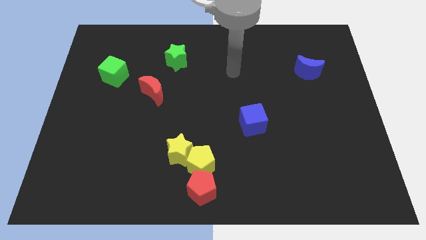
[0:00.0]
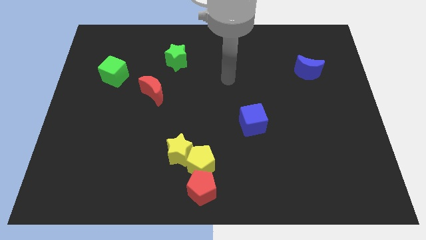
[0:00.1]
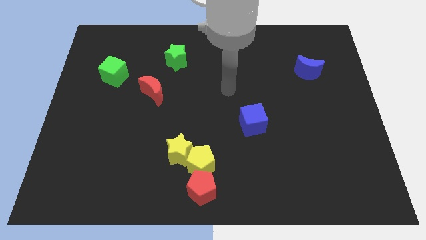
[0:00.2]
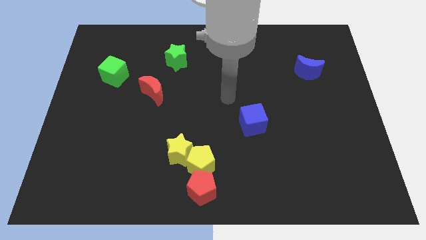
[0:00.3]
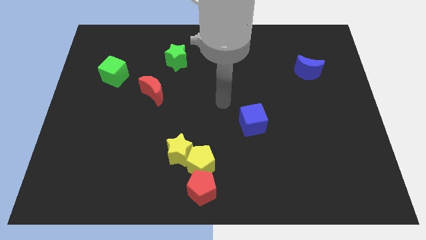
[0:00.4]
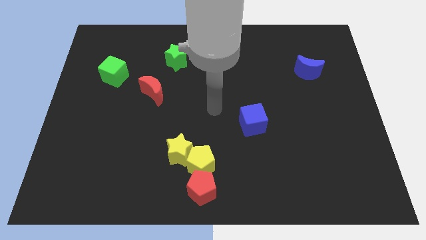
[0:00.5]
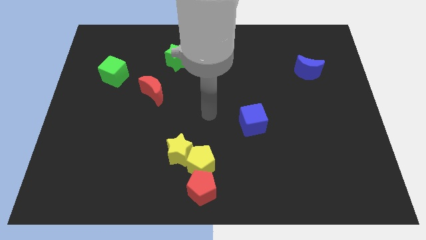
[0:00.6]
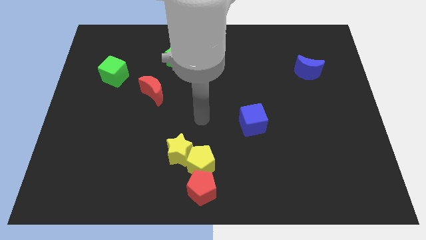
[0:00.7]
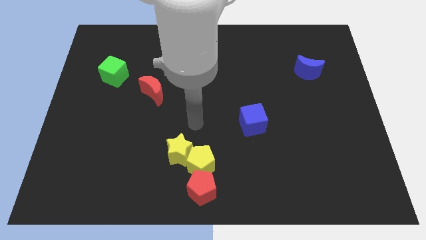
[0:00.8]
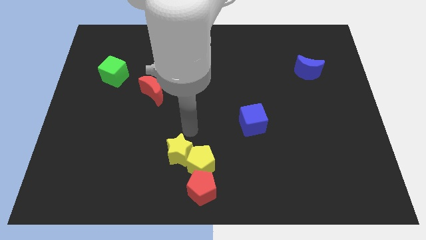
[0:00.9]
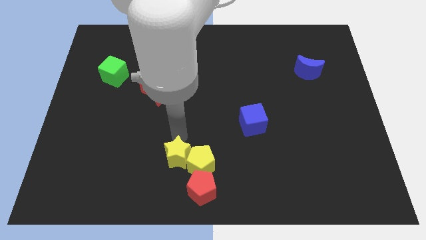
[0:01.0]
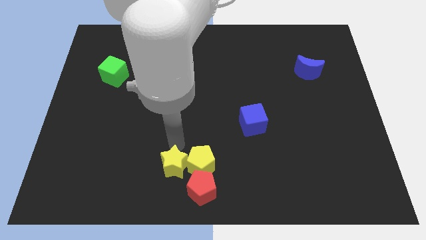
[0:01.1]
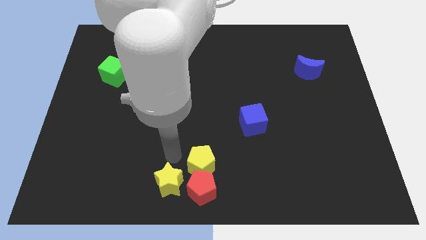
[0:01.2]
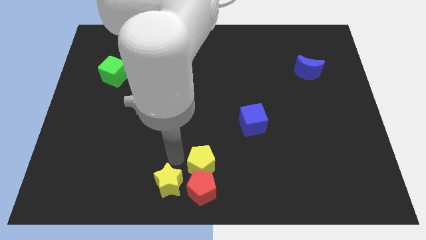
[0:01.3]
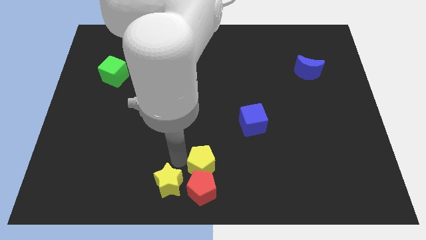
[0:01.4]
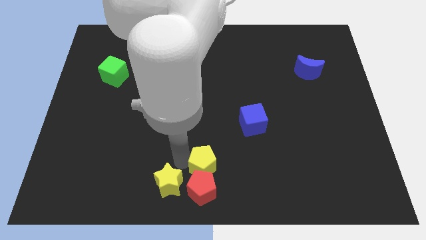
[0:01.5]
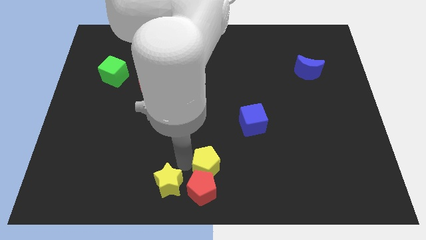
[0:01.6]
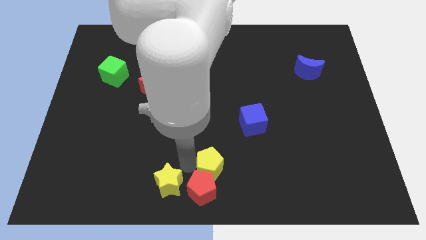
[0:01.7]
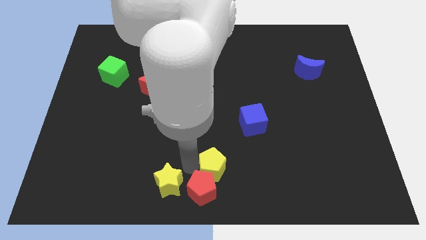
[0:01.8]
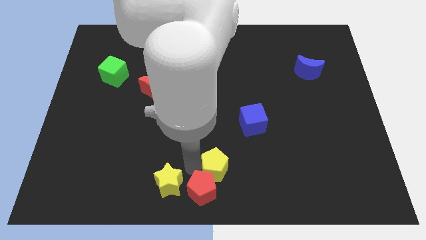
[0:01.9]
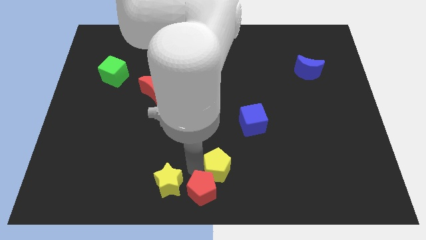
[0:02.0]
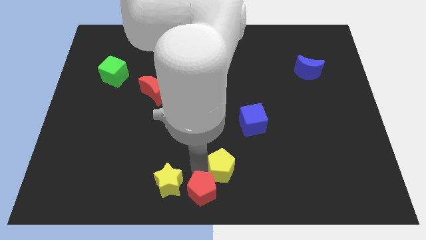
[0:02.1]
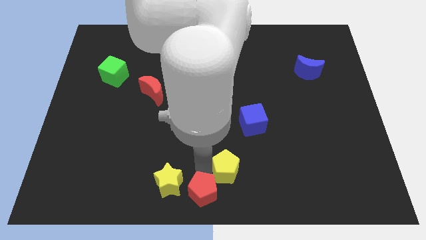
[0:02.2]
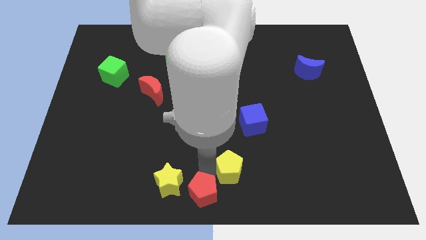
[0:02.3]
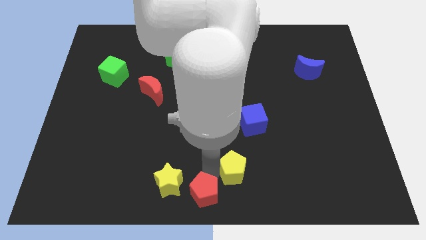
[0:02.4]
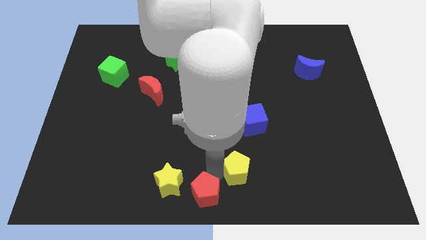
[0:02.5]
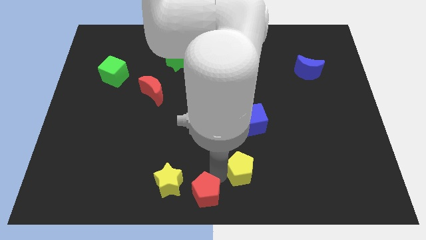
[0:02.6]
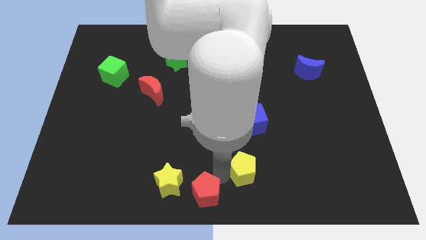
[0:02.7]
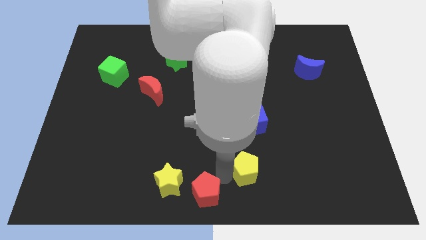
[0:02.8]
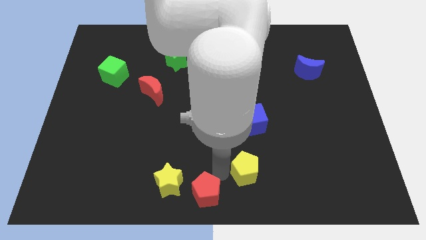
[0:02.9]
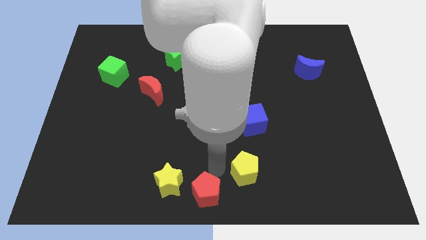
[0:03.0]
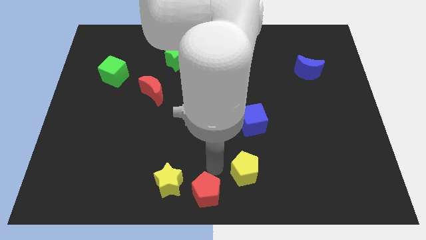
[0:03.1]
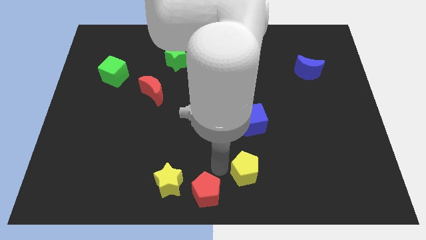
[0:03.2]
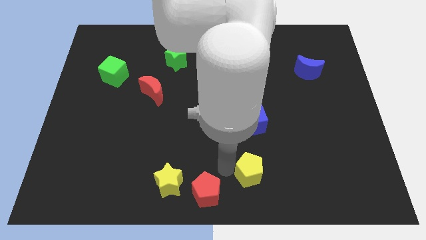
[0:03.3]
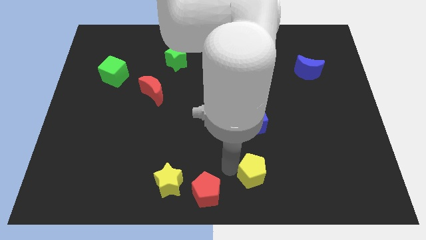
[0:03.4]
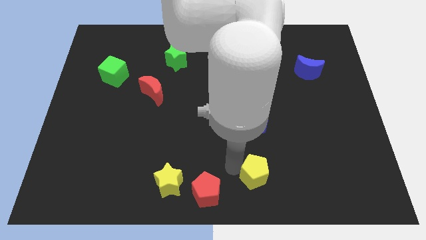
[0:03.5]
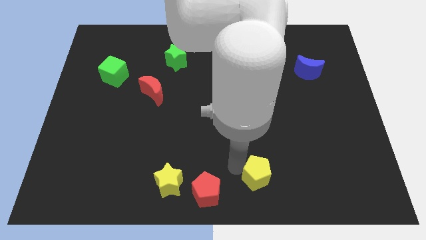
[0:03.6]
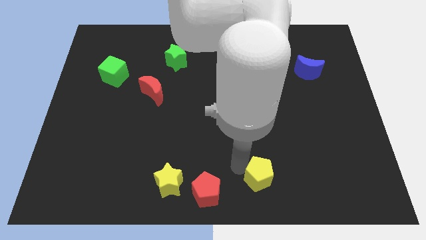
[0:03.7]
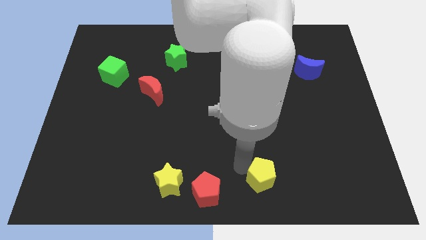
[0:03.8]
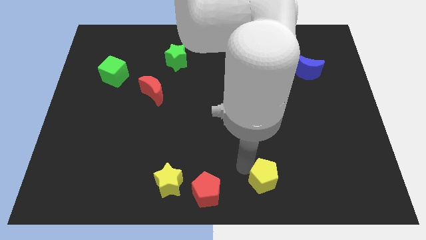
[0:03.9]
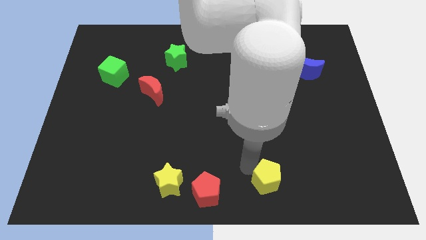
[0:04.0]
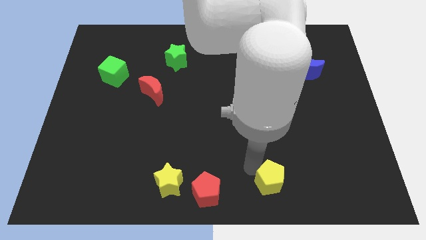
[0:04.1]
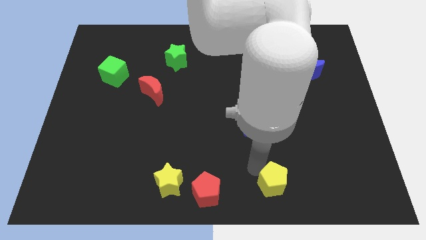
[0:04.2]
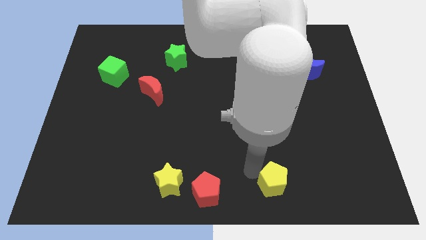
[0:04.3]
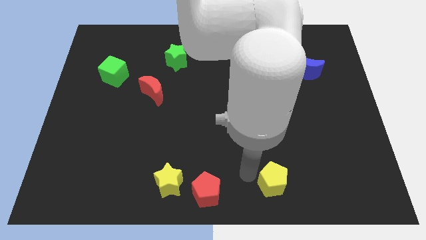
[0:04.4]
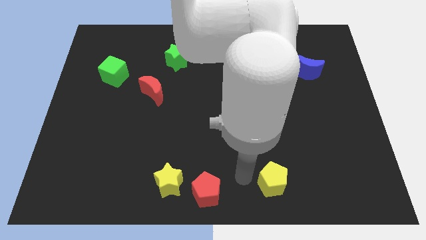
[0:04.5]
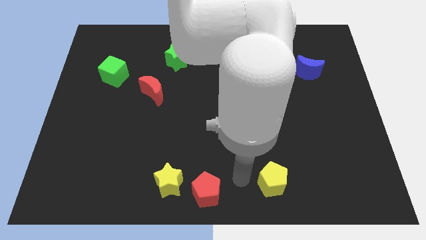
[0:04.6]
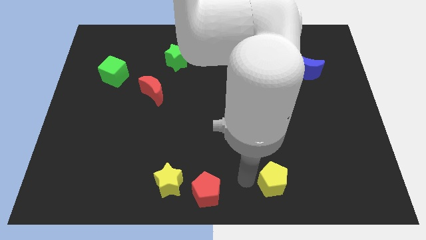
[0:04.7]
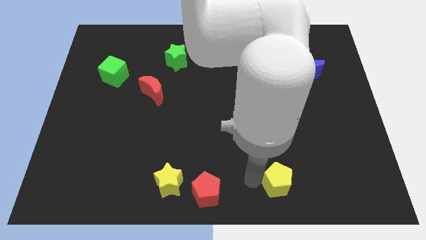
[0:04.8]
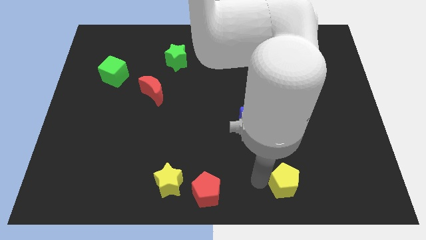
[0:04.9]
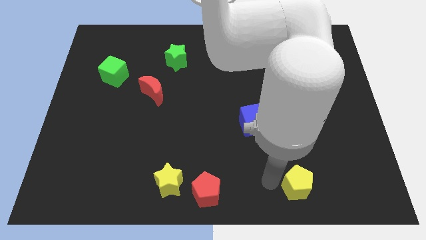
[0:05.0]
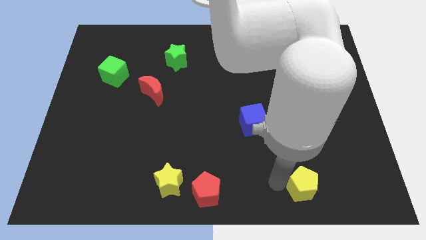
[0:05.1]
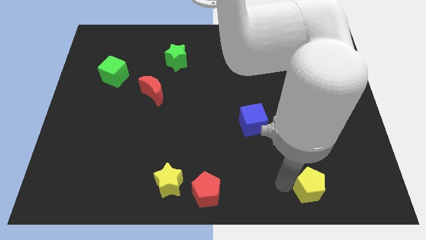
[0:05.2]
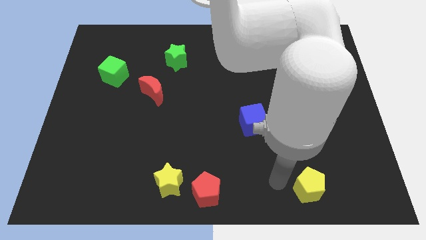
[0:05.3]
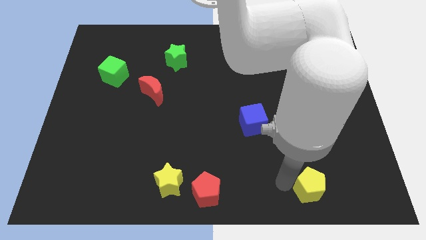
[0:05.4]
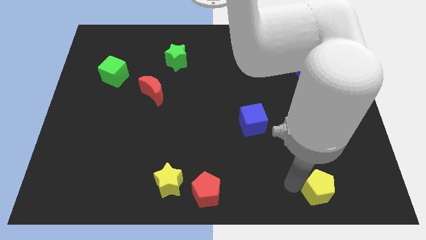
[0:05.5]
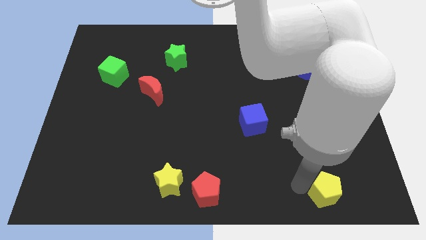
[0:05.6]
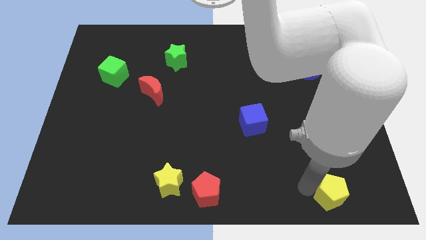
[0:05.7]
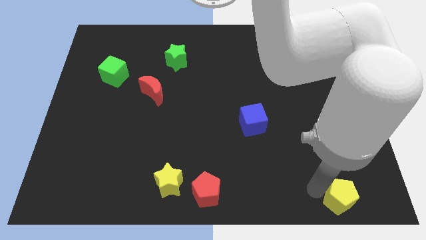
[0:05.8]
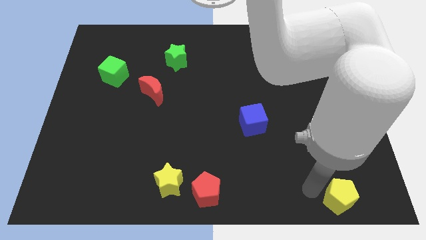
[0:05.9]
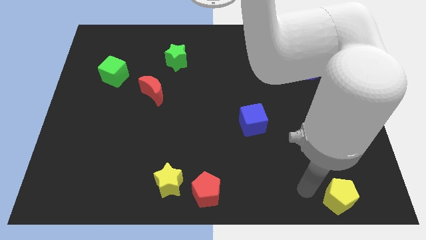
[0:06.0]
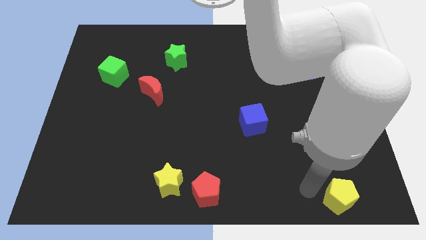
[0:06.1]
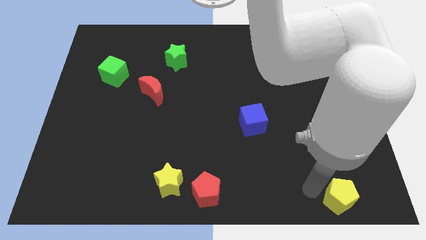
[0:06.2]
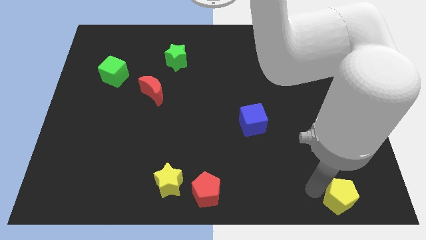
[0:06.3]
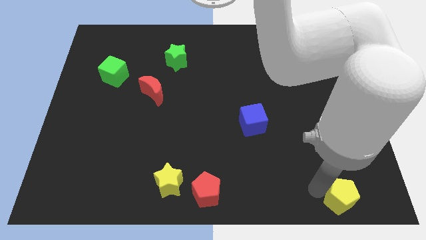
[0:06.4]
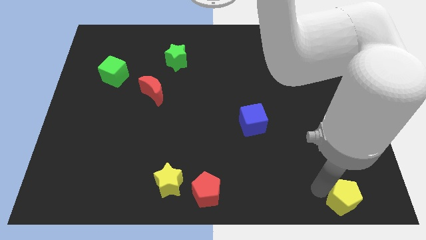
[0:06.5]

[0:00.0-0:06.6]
push the yellow pentagon to the bottom right
